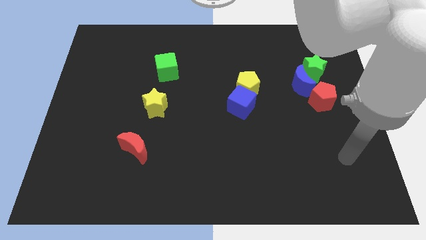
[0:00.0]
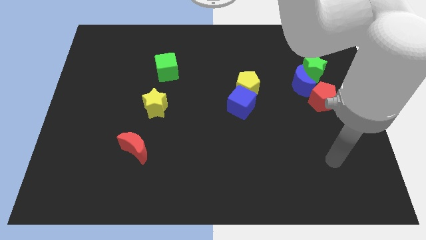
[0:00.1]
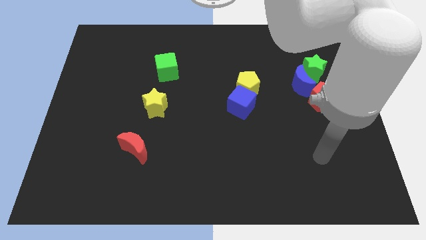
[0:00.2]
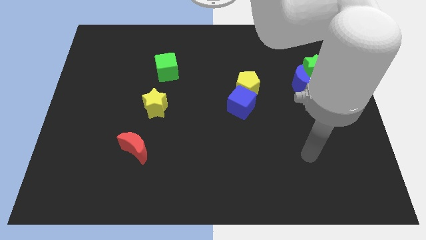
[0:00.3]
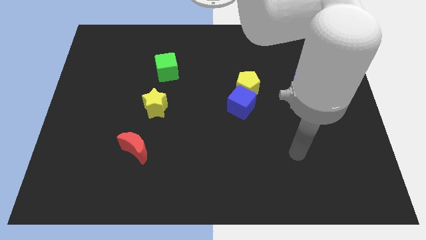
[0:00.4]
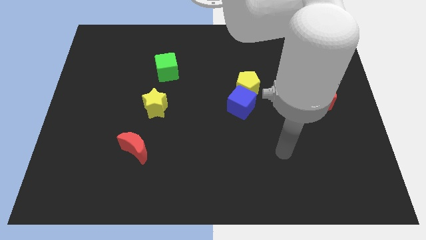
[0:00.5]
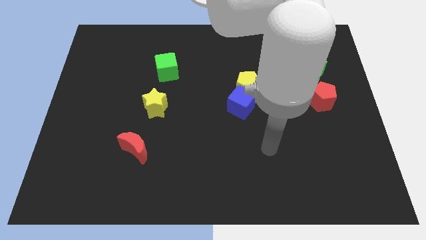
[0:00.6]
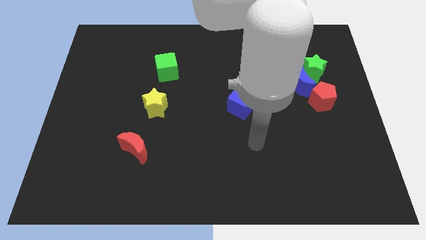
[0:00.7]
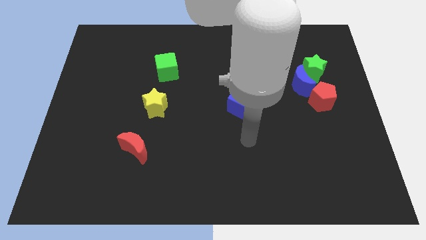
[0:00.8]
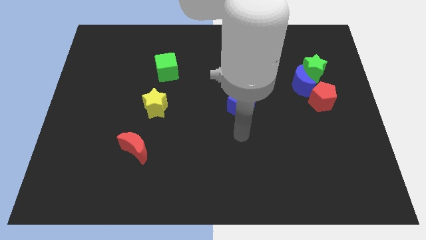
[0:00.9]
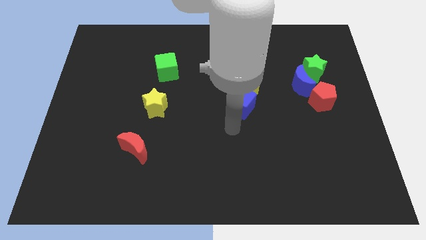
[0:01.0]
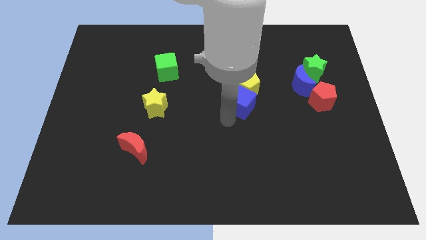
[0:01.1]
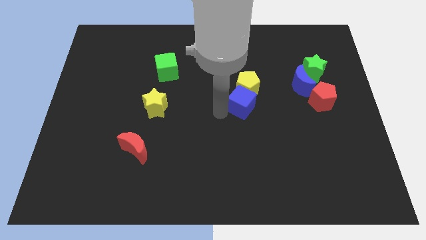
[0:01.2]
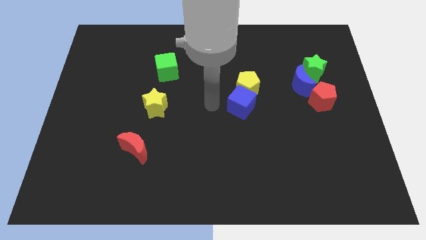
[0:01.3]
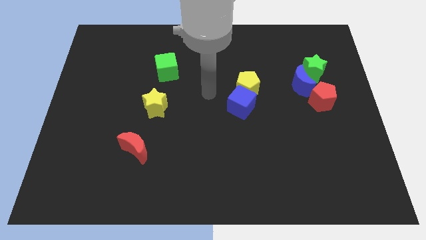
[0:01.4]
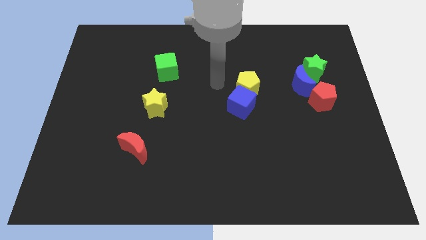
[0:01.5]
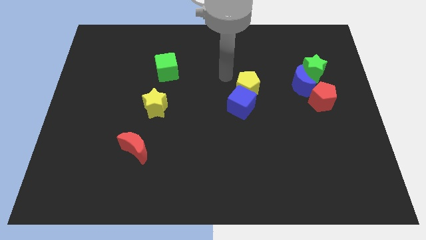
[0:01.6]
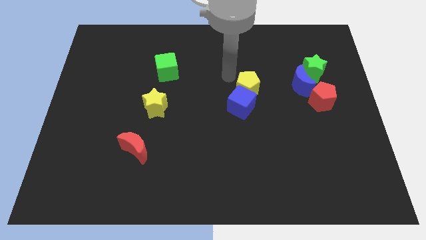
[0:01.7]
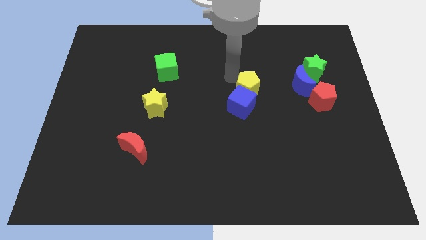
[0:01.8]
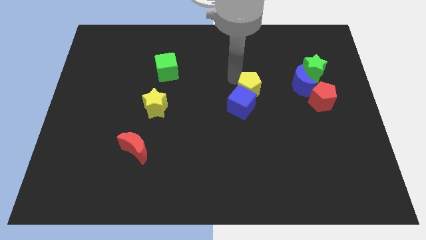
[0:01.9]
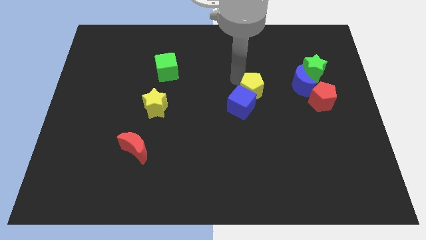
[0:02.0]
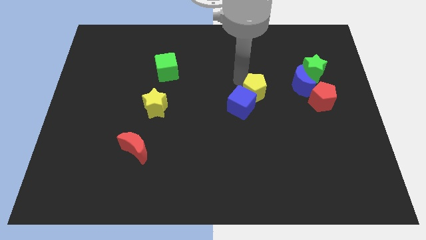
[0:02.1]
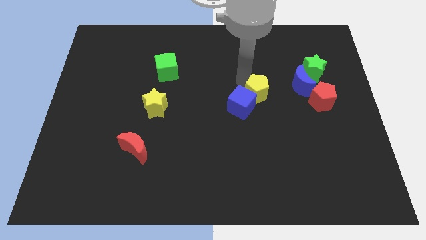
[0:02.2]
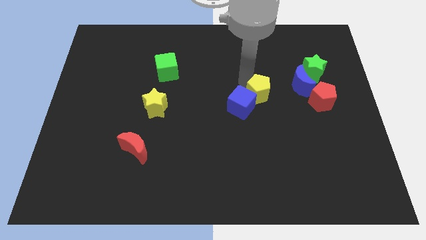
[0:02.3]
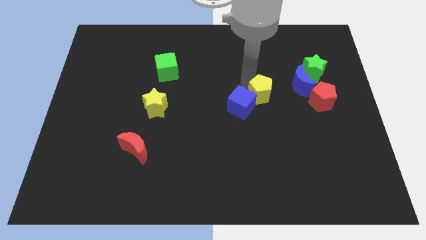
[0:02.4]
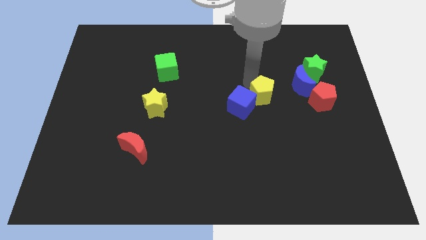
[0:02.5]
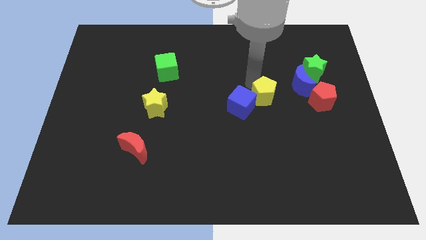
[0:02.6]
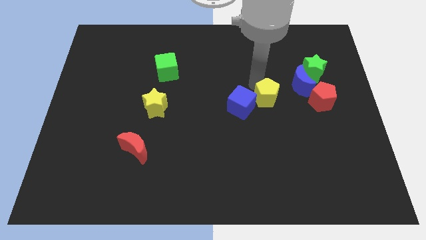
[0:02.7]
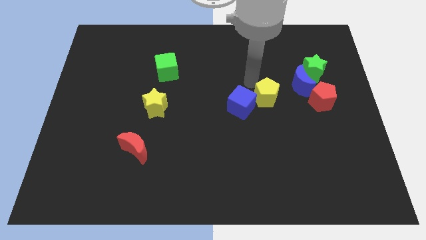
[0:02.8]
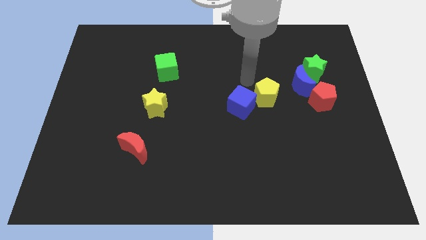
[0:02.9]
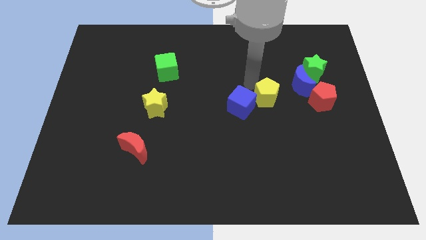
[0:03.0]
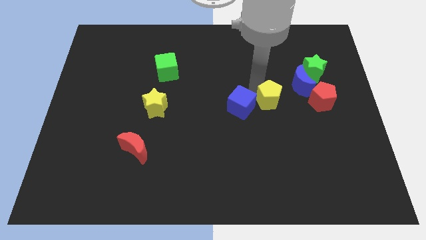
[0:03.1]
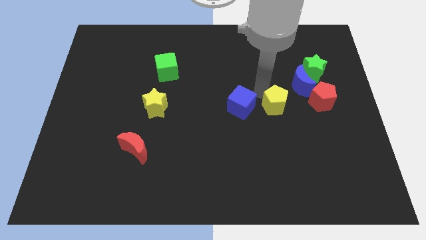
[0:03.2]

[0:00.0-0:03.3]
push the yellow pentagon down and to the right a little

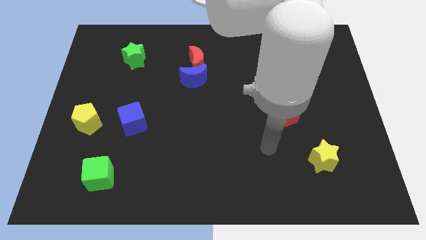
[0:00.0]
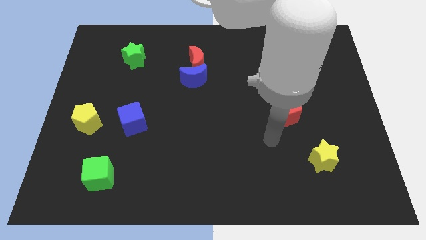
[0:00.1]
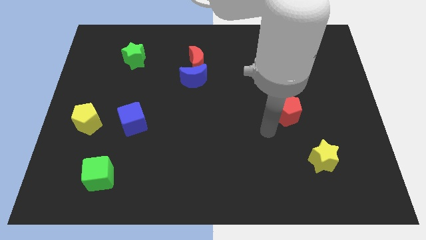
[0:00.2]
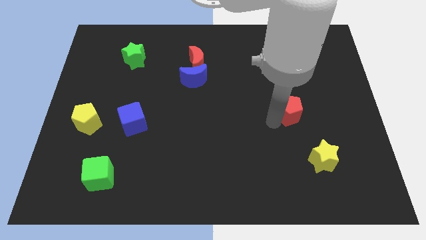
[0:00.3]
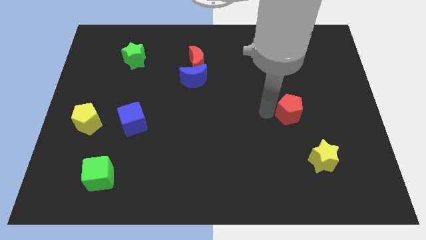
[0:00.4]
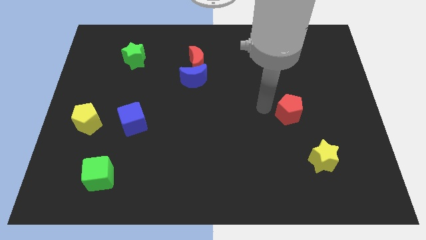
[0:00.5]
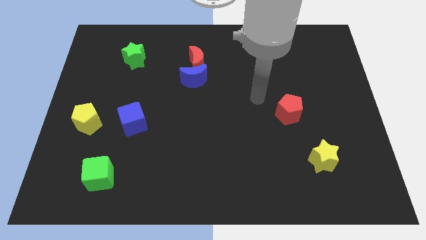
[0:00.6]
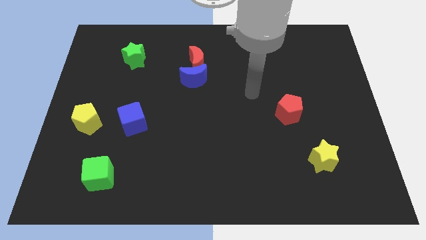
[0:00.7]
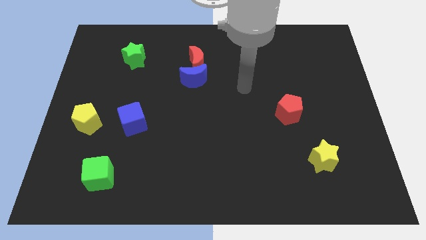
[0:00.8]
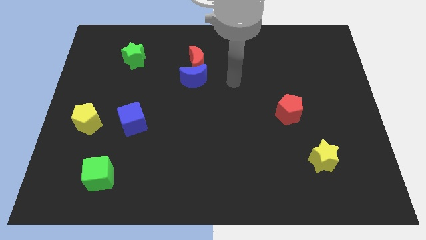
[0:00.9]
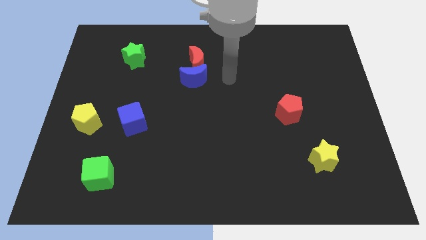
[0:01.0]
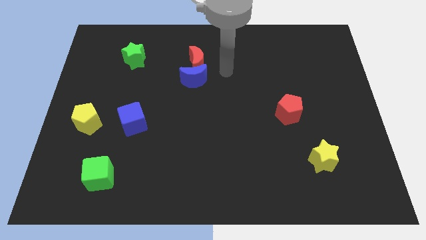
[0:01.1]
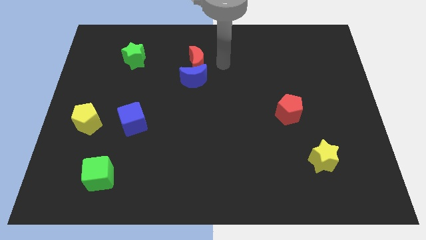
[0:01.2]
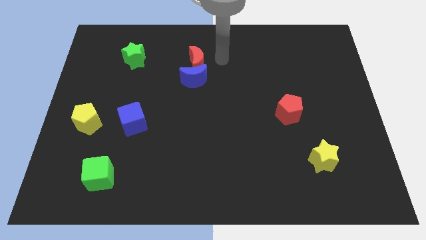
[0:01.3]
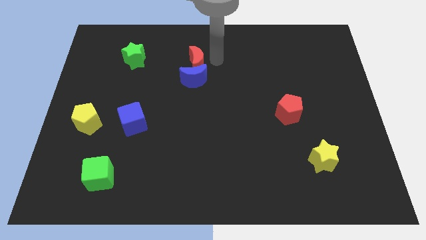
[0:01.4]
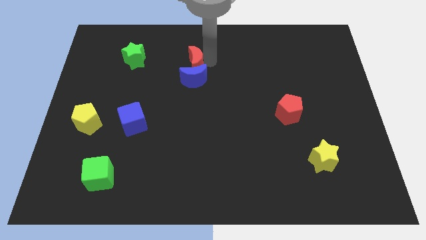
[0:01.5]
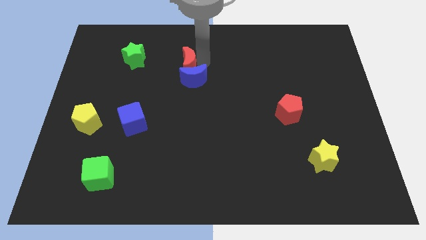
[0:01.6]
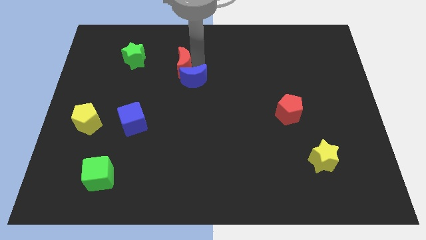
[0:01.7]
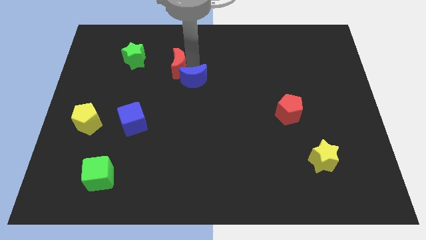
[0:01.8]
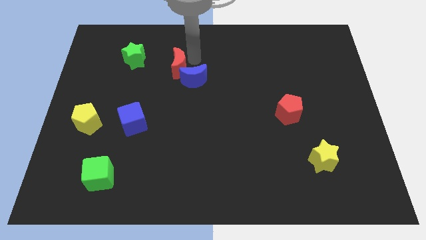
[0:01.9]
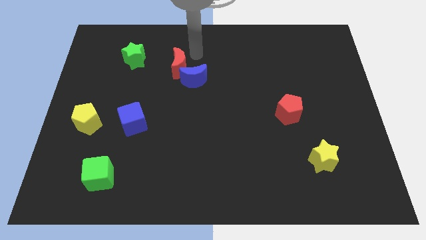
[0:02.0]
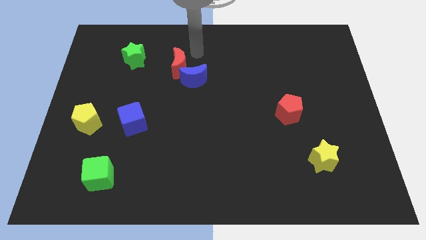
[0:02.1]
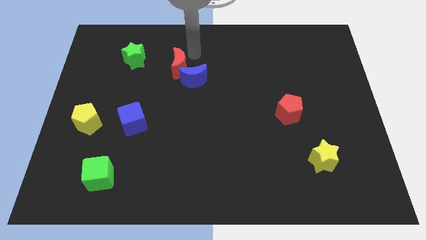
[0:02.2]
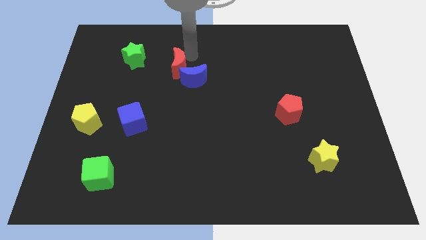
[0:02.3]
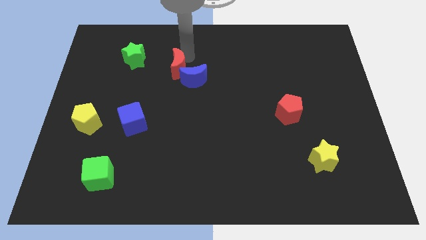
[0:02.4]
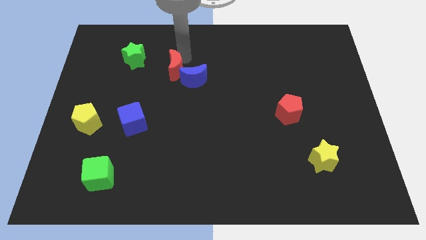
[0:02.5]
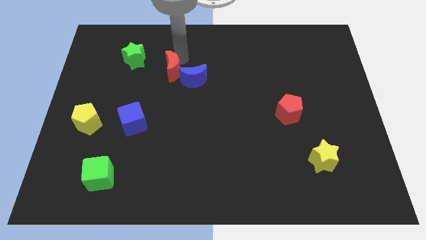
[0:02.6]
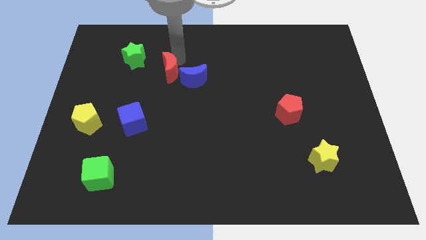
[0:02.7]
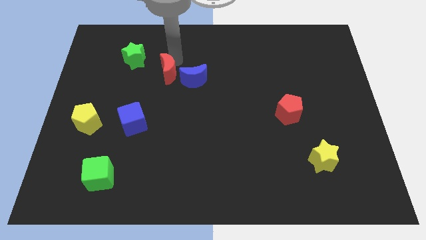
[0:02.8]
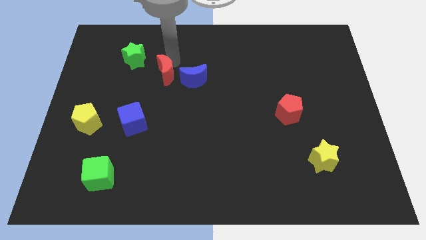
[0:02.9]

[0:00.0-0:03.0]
push the red moon diagonally downwards and left a little

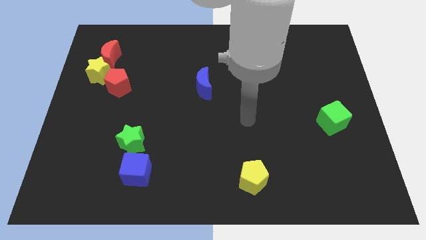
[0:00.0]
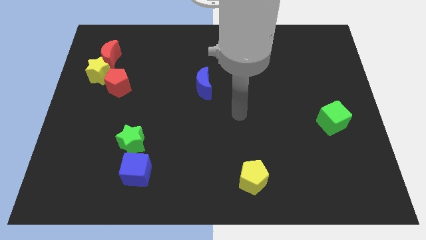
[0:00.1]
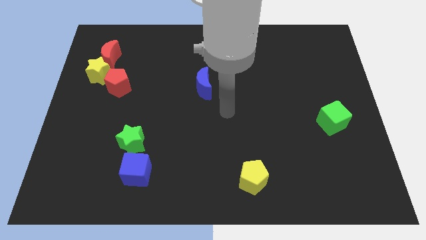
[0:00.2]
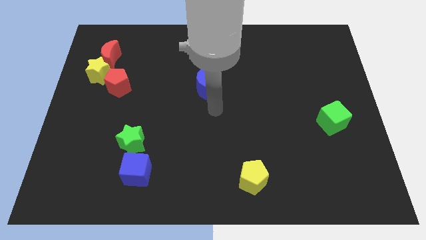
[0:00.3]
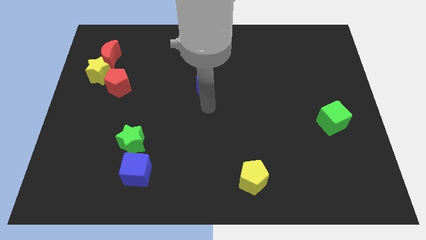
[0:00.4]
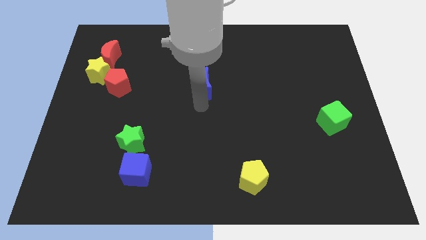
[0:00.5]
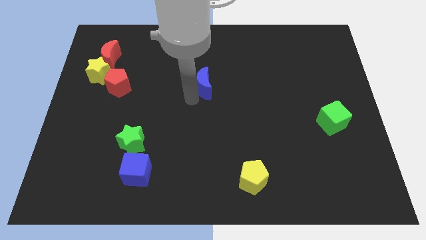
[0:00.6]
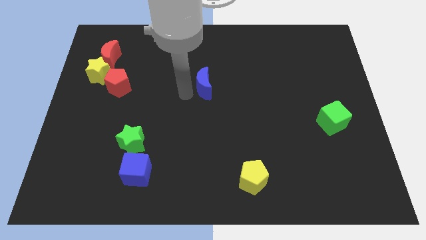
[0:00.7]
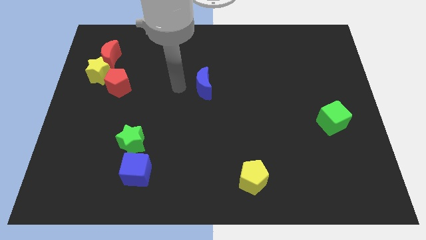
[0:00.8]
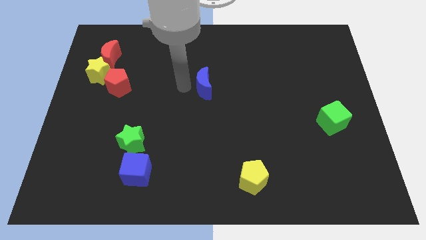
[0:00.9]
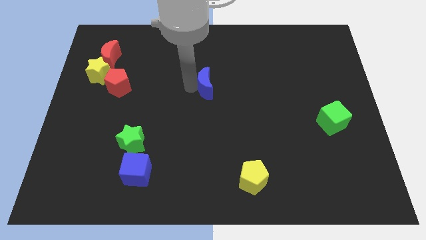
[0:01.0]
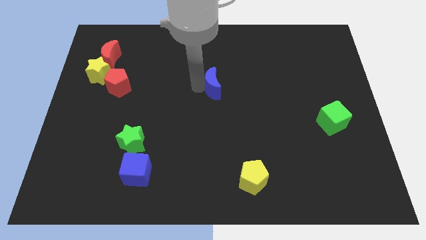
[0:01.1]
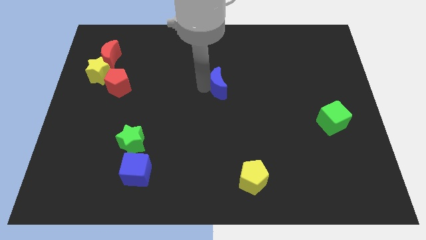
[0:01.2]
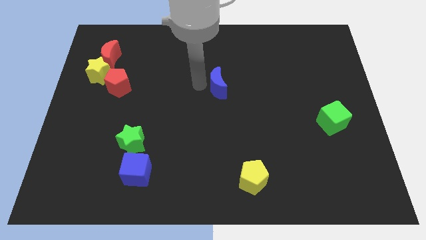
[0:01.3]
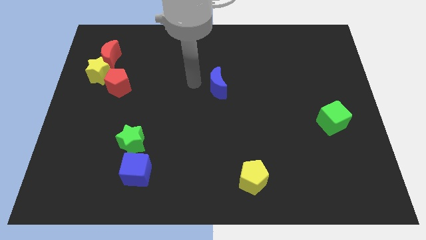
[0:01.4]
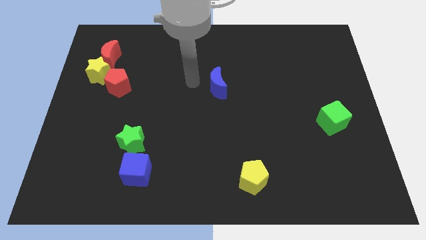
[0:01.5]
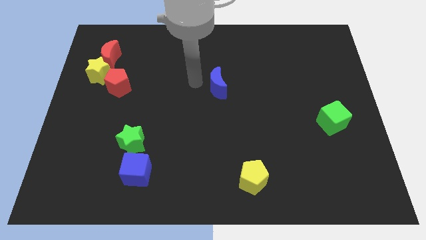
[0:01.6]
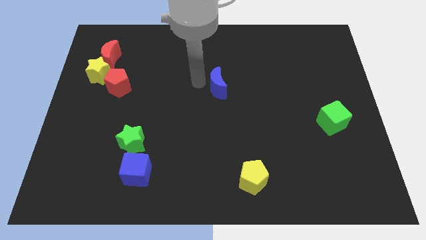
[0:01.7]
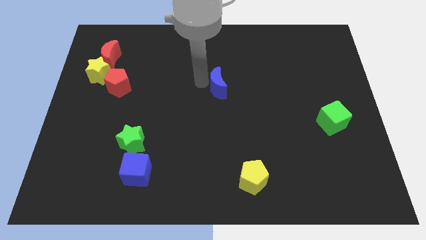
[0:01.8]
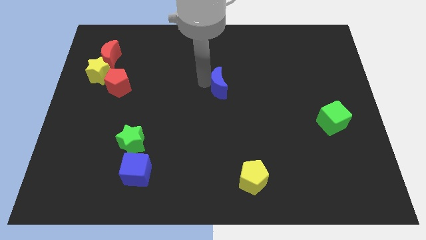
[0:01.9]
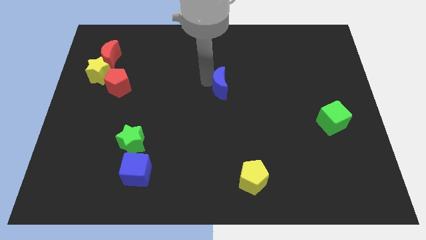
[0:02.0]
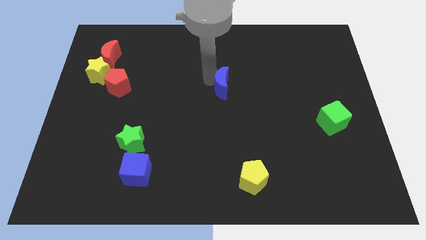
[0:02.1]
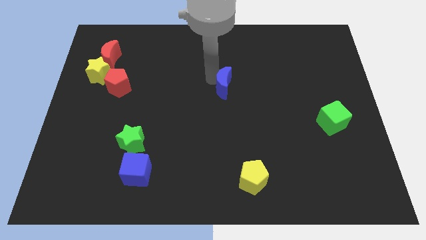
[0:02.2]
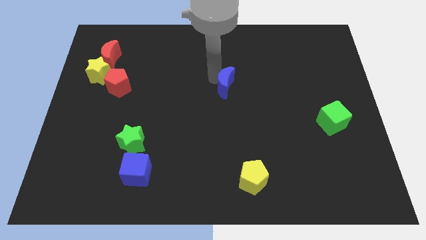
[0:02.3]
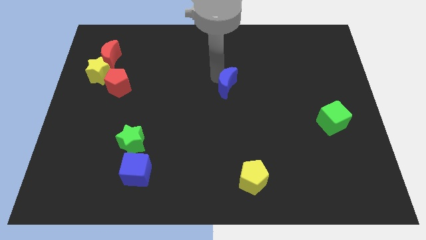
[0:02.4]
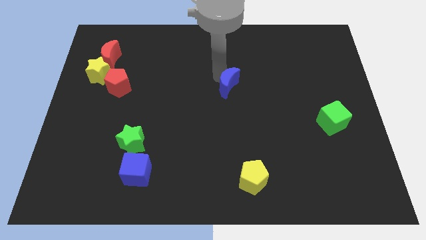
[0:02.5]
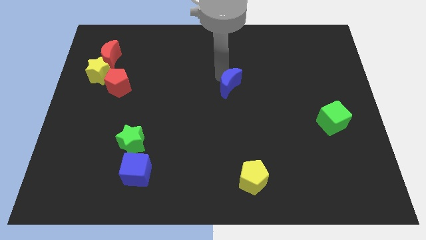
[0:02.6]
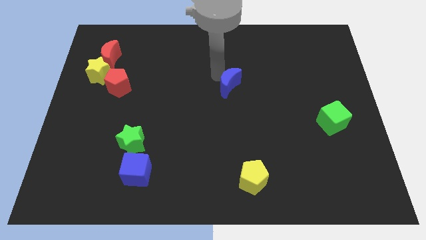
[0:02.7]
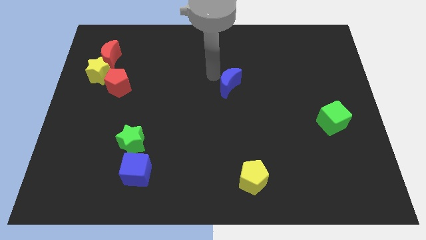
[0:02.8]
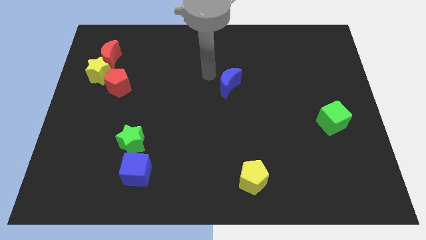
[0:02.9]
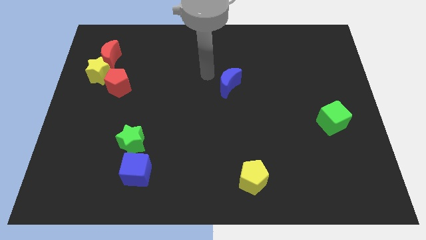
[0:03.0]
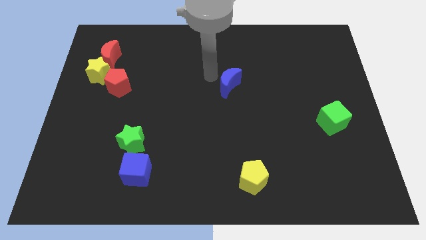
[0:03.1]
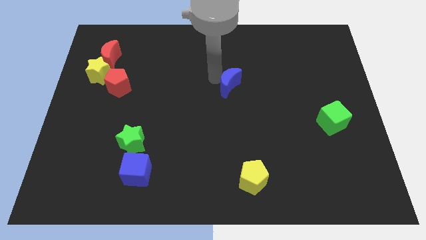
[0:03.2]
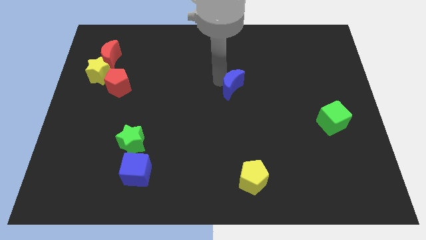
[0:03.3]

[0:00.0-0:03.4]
move the blue moon right slightly
